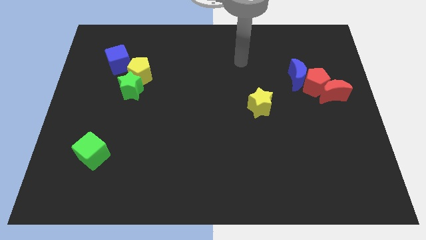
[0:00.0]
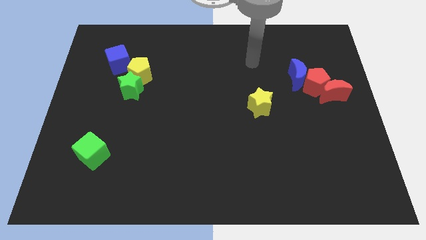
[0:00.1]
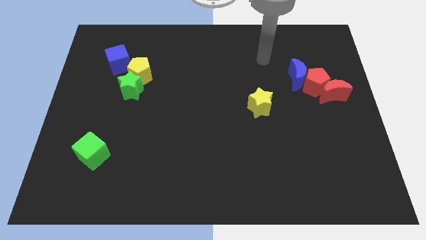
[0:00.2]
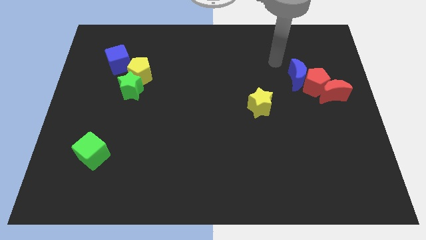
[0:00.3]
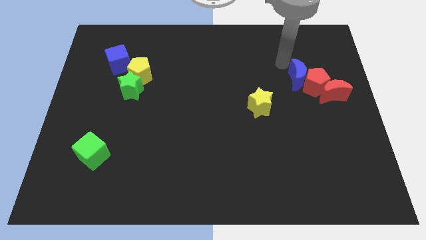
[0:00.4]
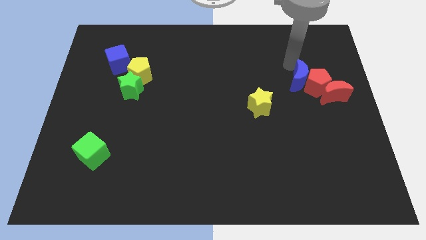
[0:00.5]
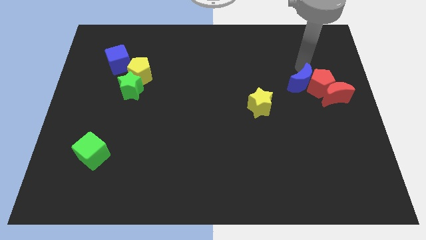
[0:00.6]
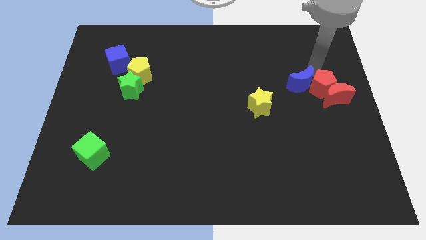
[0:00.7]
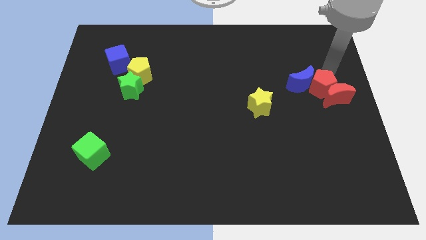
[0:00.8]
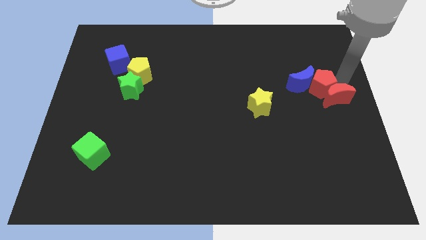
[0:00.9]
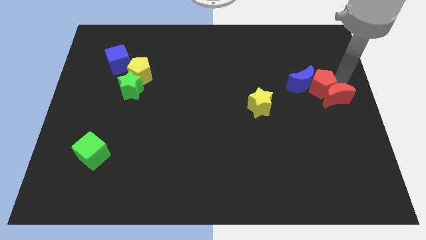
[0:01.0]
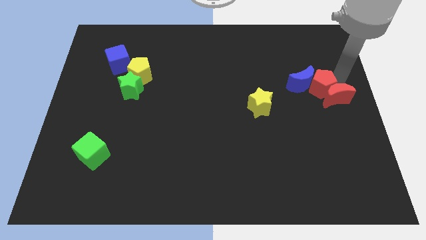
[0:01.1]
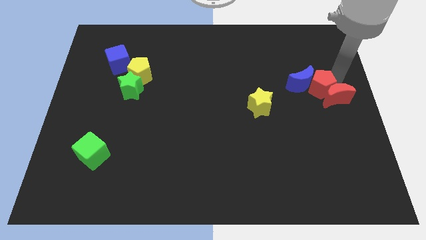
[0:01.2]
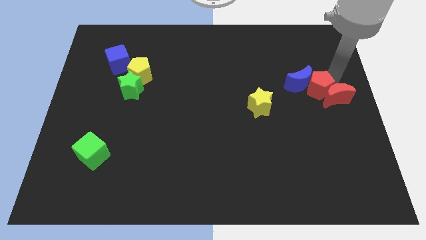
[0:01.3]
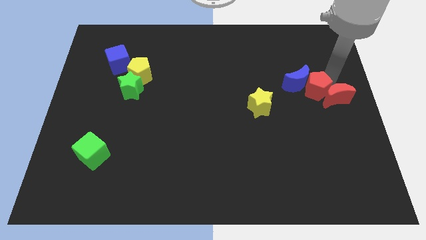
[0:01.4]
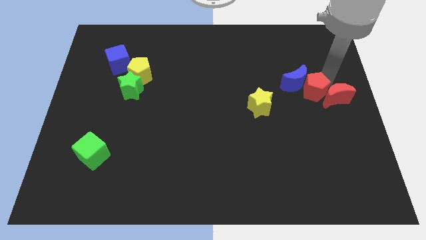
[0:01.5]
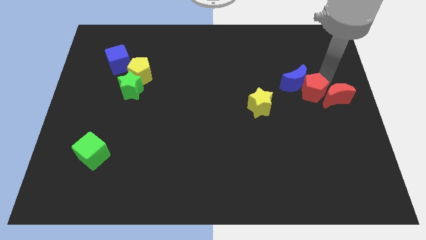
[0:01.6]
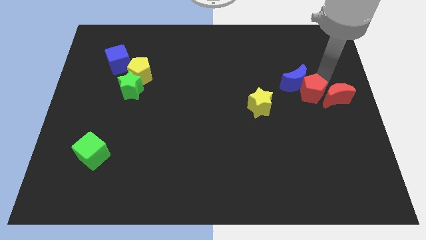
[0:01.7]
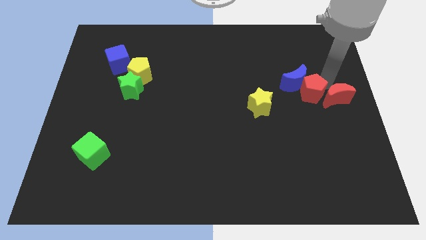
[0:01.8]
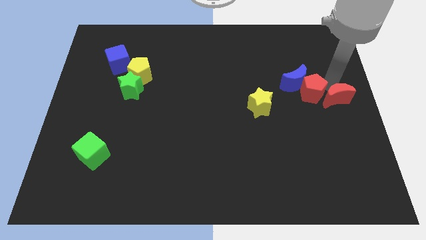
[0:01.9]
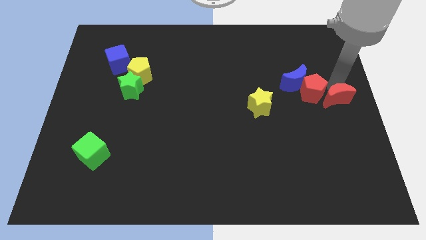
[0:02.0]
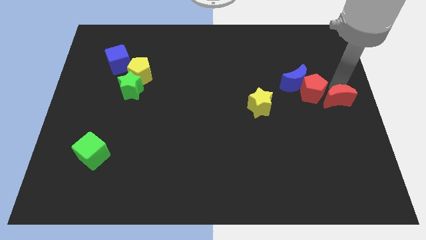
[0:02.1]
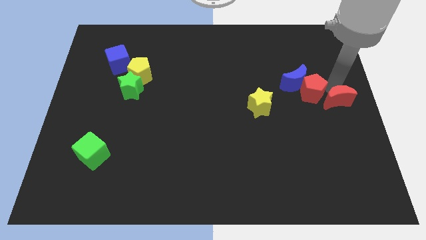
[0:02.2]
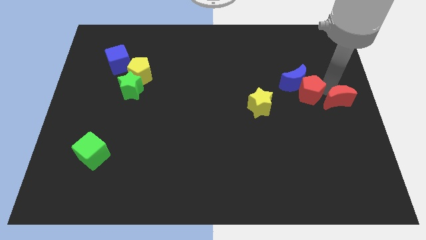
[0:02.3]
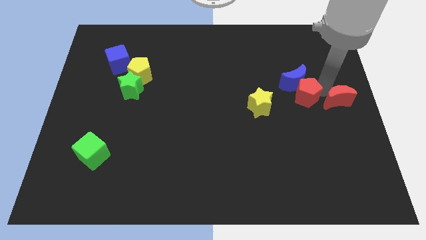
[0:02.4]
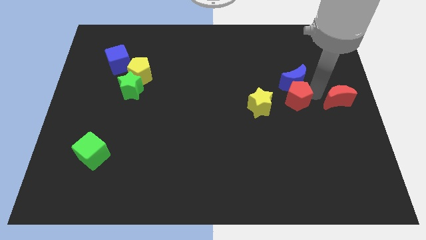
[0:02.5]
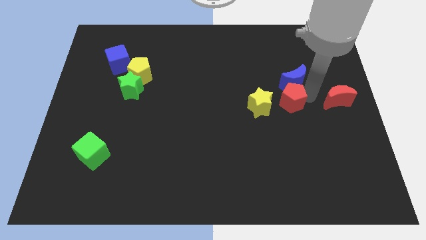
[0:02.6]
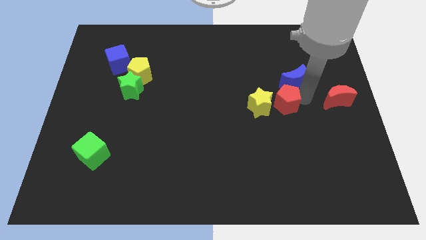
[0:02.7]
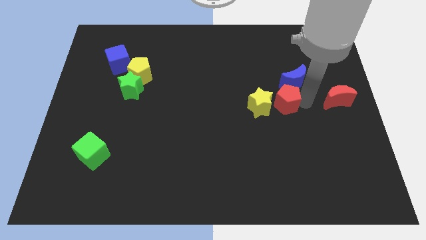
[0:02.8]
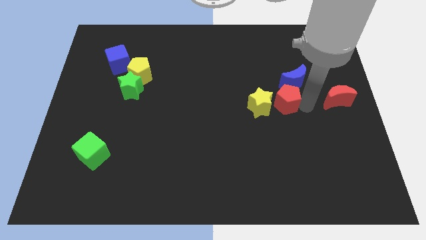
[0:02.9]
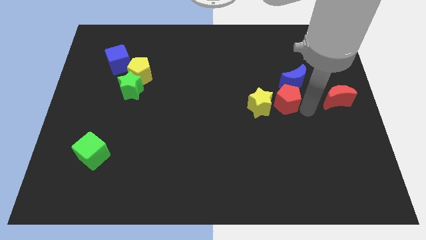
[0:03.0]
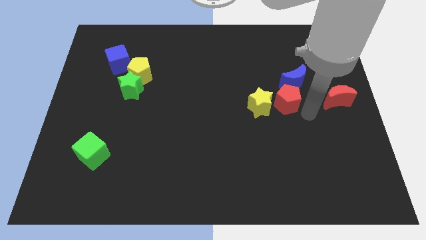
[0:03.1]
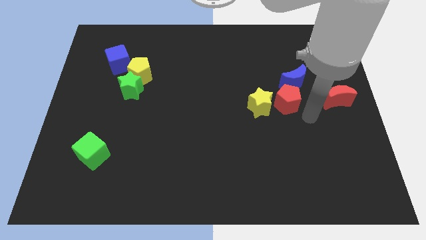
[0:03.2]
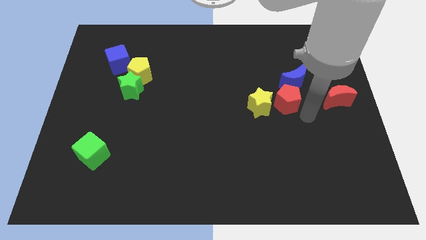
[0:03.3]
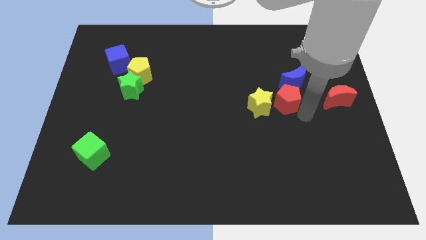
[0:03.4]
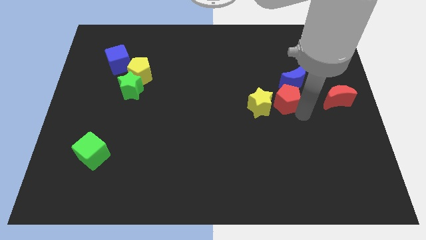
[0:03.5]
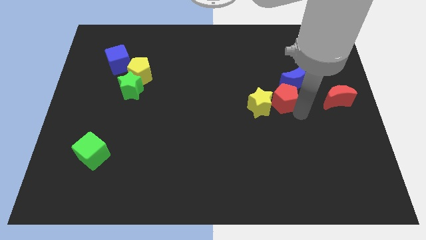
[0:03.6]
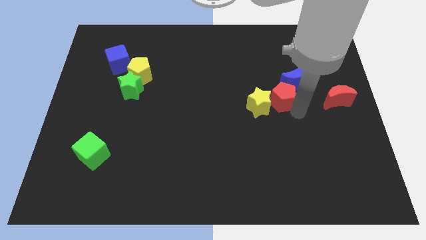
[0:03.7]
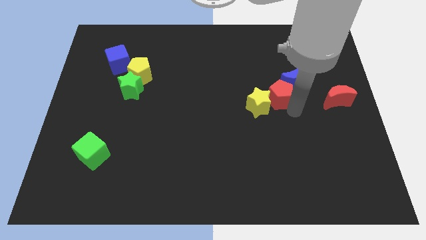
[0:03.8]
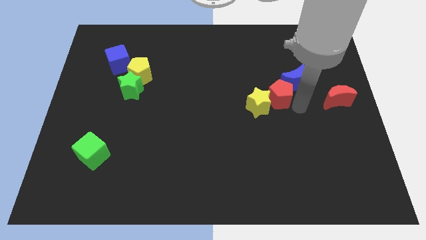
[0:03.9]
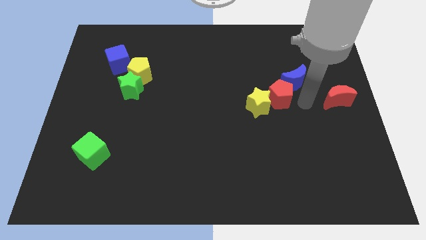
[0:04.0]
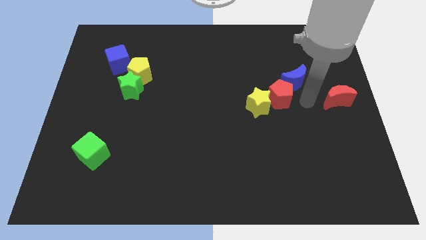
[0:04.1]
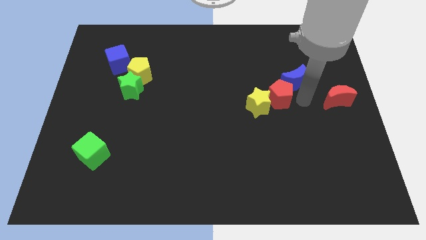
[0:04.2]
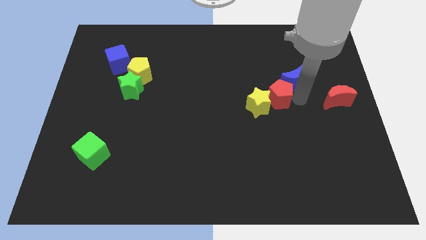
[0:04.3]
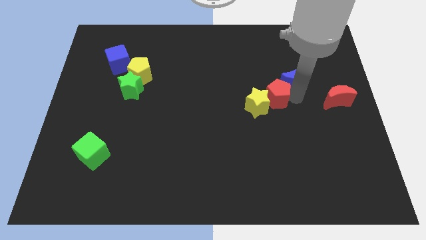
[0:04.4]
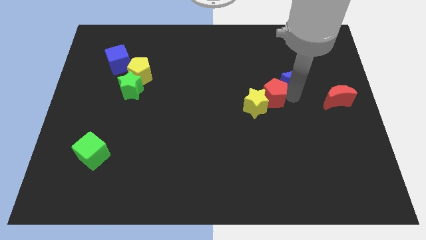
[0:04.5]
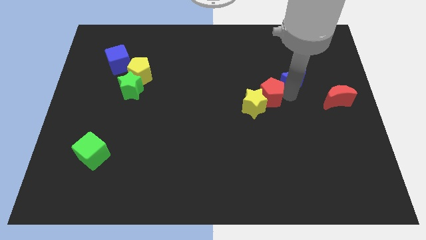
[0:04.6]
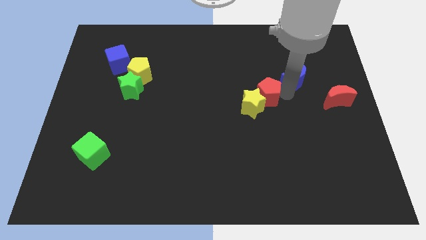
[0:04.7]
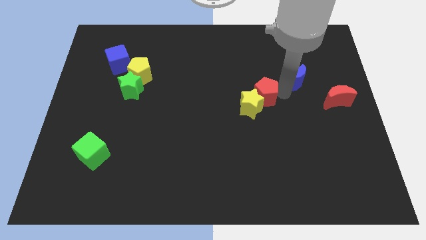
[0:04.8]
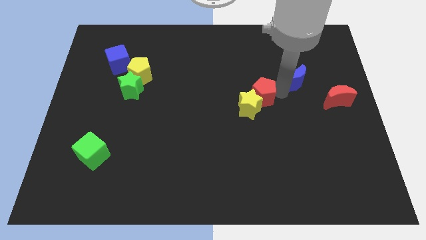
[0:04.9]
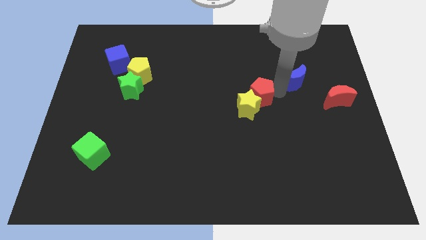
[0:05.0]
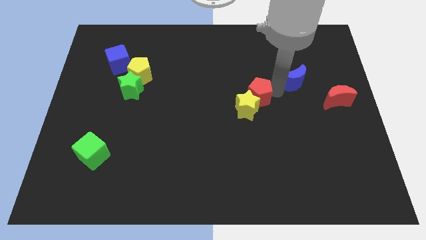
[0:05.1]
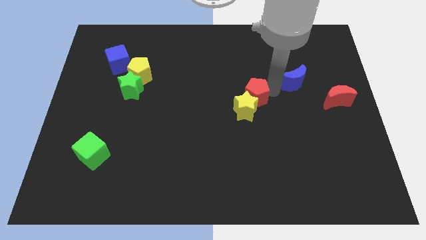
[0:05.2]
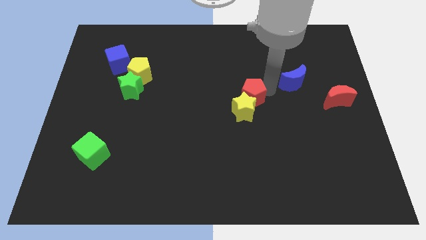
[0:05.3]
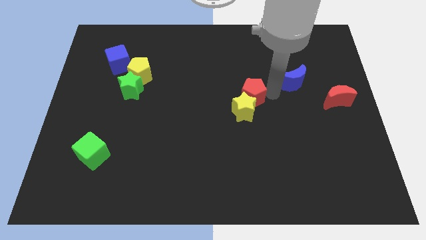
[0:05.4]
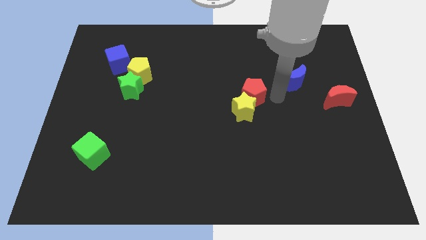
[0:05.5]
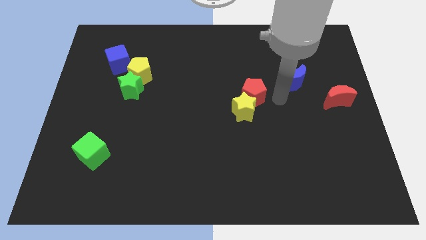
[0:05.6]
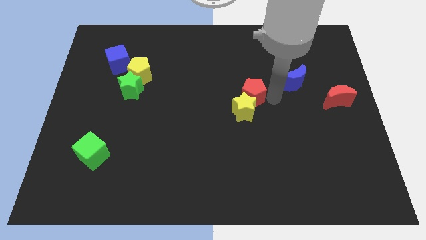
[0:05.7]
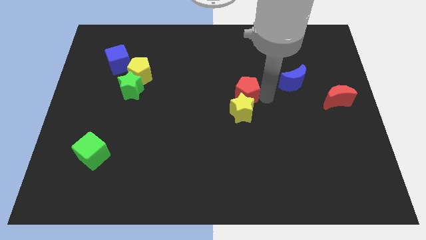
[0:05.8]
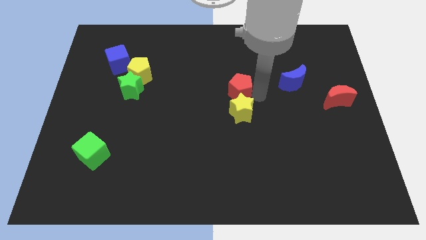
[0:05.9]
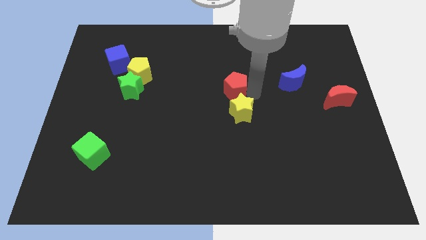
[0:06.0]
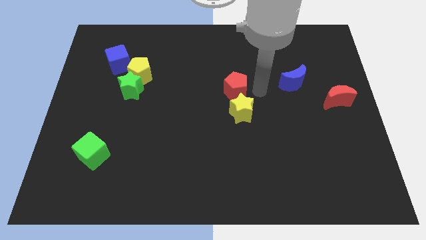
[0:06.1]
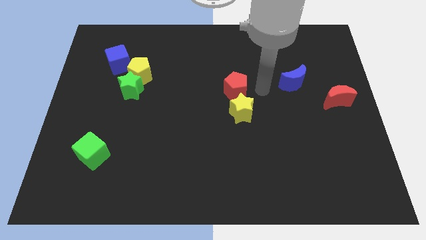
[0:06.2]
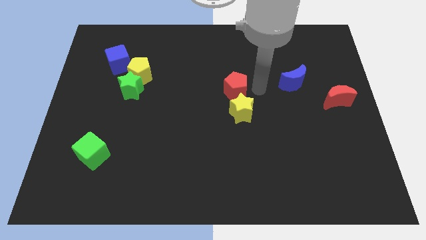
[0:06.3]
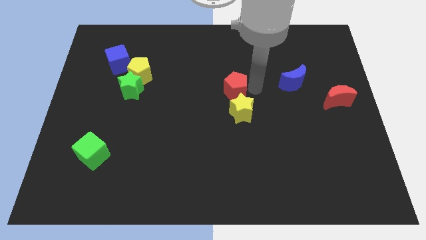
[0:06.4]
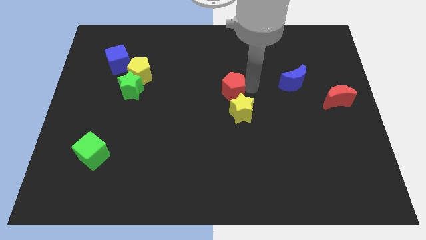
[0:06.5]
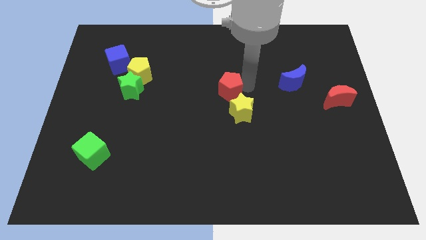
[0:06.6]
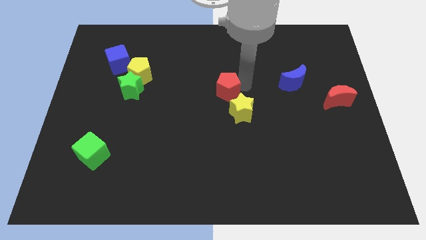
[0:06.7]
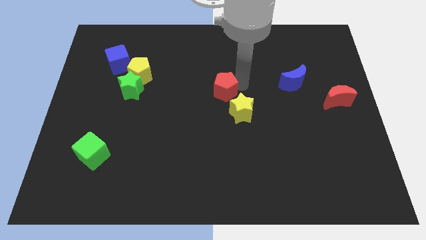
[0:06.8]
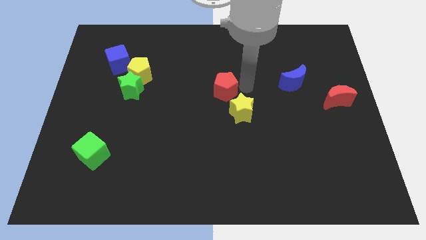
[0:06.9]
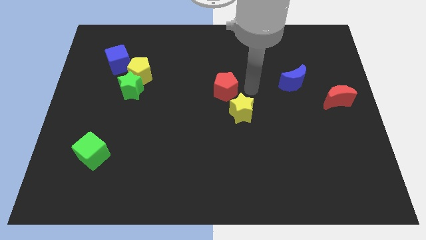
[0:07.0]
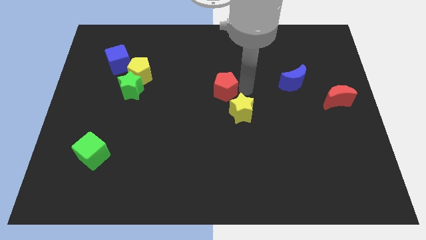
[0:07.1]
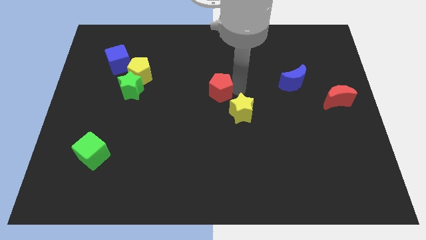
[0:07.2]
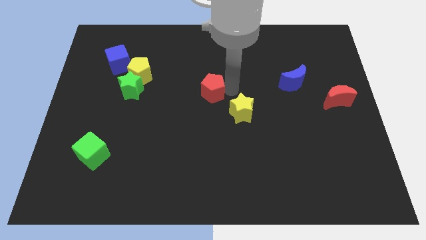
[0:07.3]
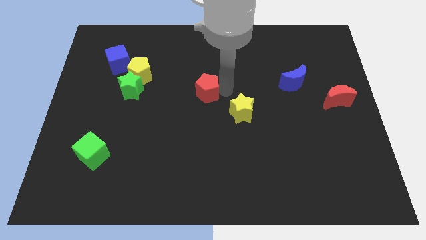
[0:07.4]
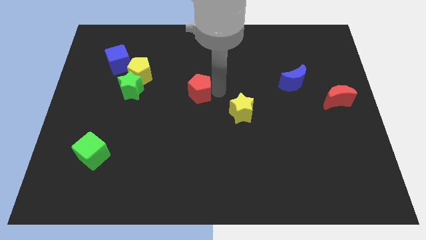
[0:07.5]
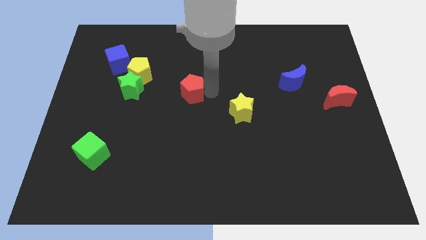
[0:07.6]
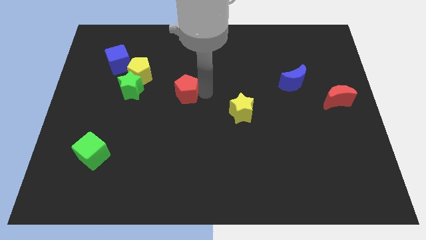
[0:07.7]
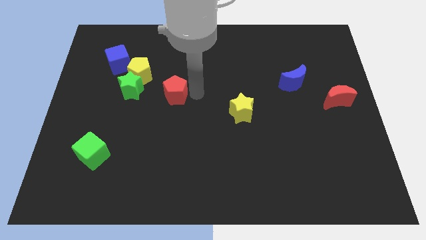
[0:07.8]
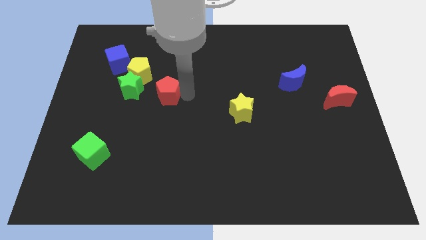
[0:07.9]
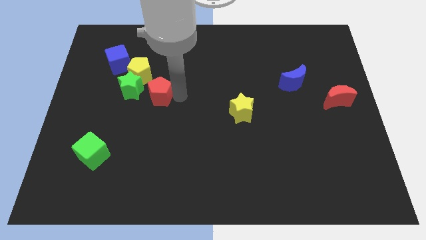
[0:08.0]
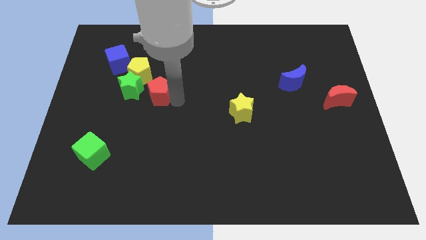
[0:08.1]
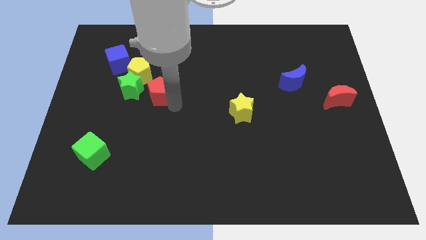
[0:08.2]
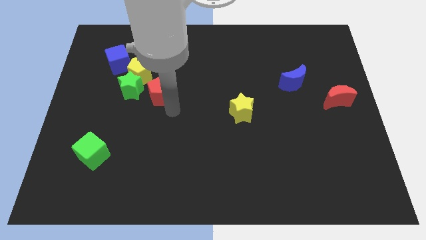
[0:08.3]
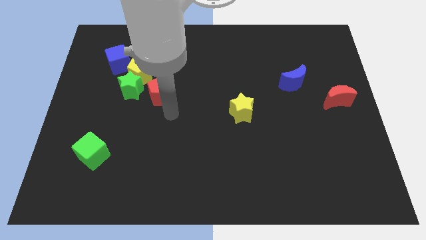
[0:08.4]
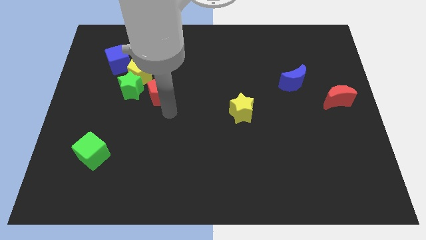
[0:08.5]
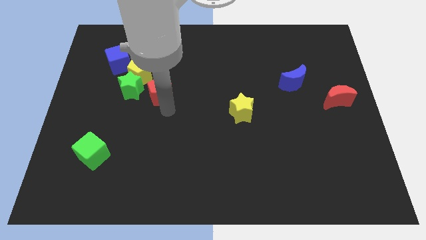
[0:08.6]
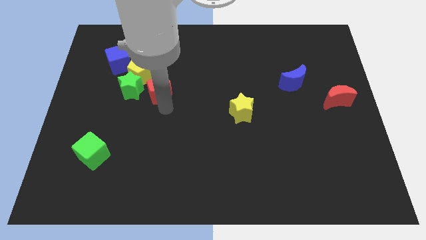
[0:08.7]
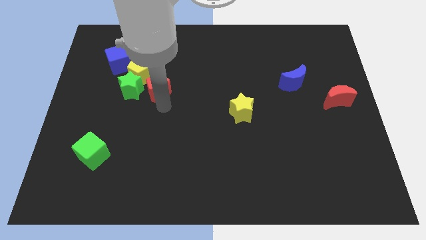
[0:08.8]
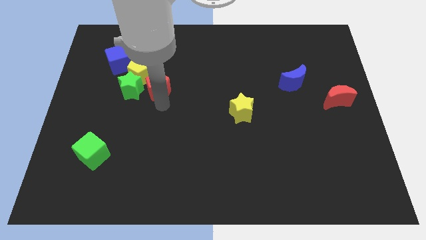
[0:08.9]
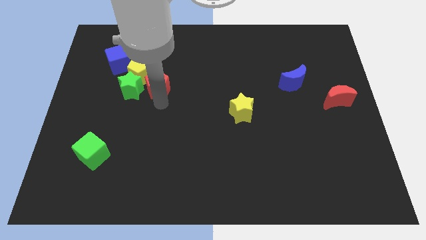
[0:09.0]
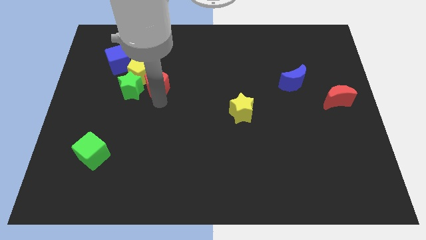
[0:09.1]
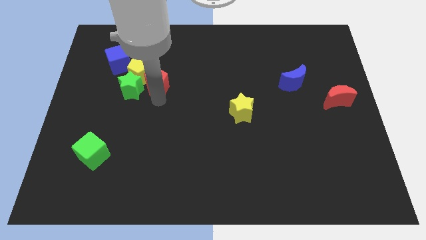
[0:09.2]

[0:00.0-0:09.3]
put the red pentagon towards the yellow pentagon
